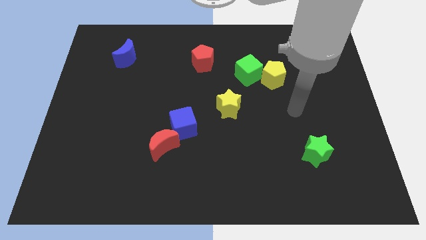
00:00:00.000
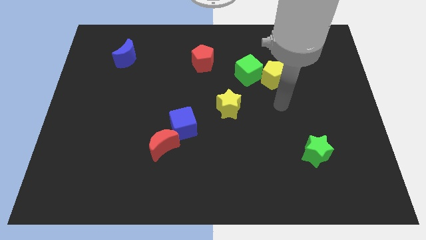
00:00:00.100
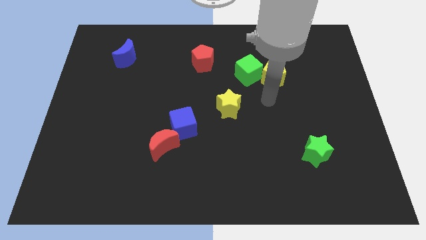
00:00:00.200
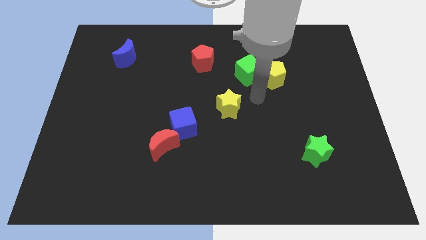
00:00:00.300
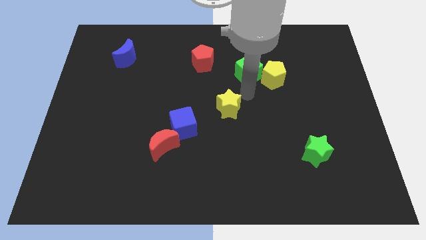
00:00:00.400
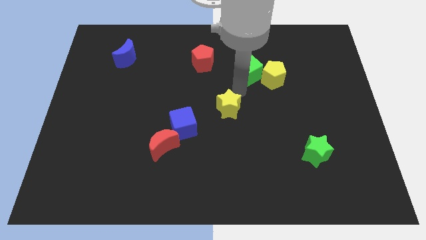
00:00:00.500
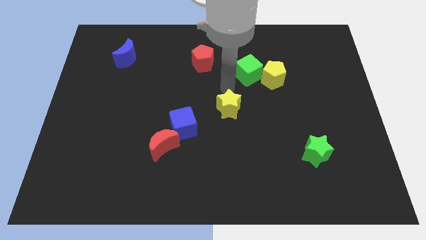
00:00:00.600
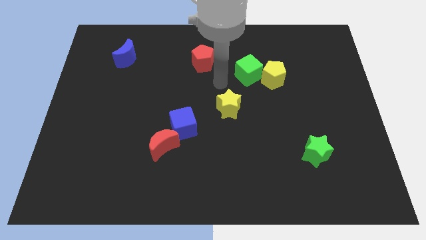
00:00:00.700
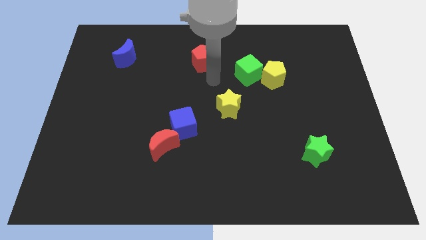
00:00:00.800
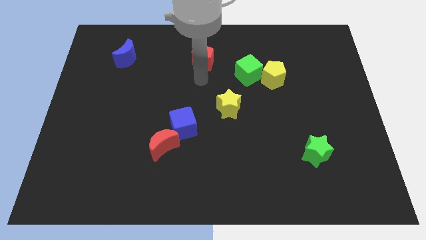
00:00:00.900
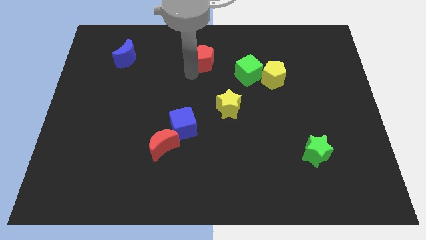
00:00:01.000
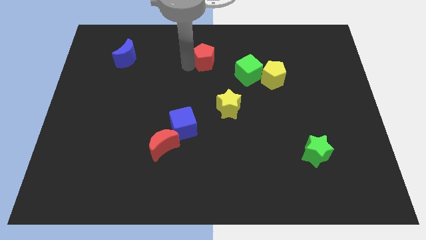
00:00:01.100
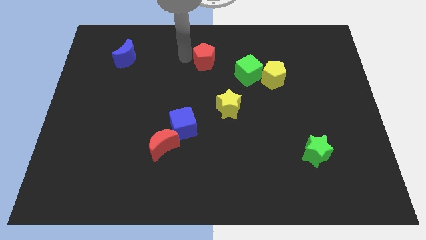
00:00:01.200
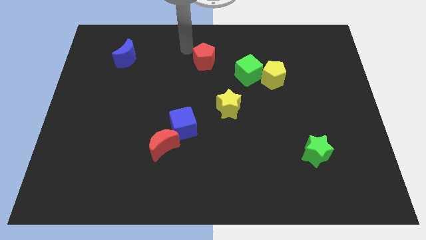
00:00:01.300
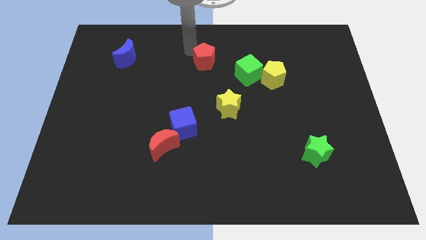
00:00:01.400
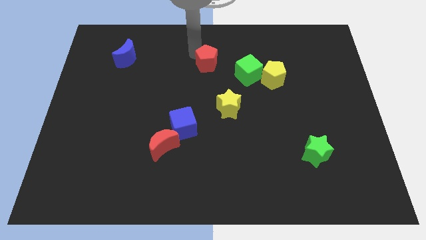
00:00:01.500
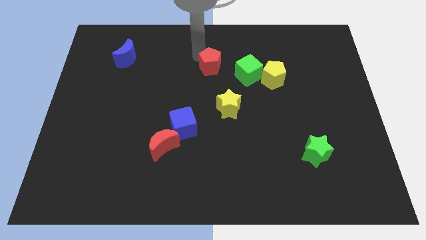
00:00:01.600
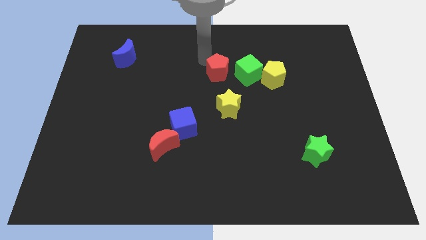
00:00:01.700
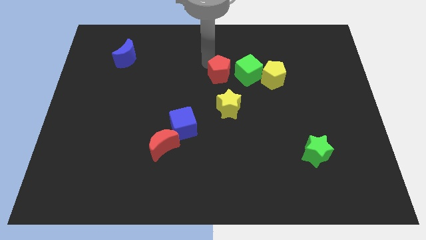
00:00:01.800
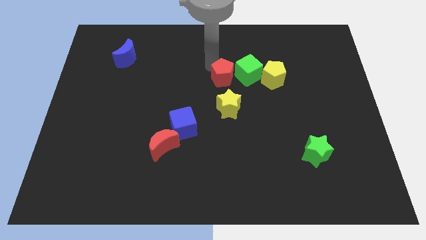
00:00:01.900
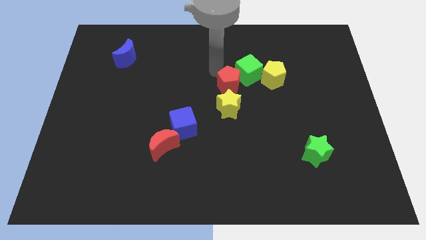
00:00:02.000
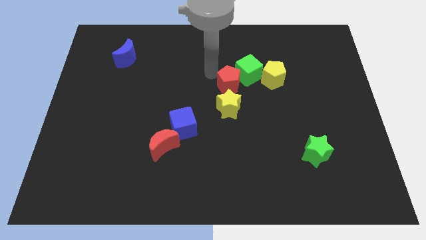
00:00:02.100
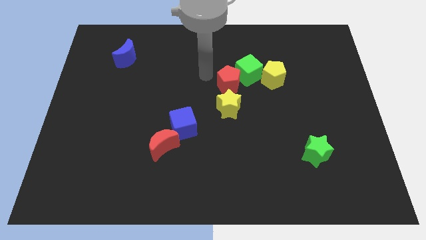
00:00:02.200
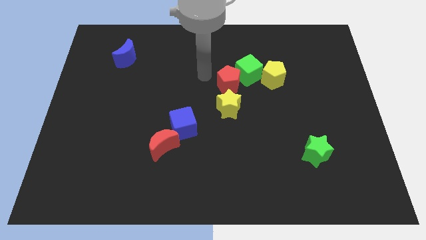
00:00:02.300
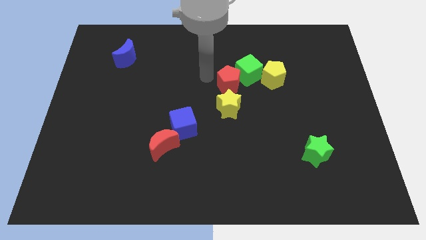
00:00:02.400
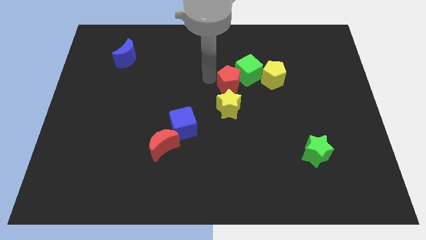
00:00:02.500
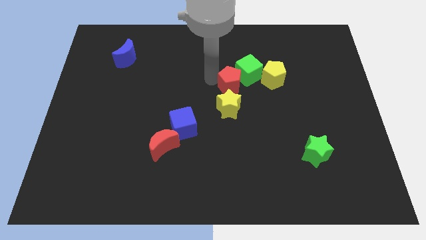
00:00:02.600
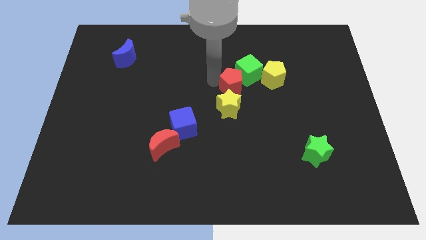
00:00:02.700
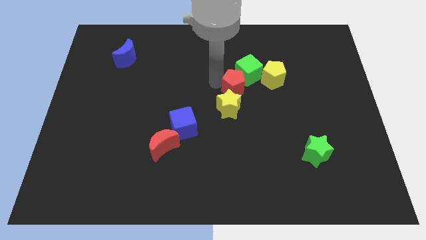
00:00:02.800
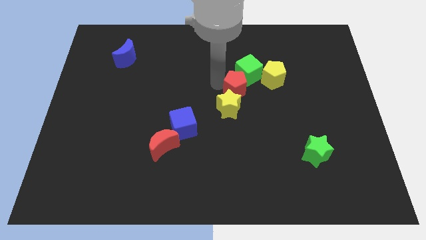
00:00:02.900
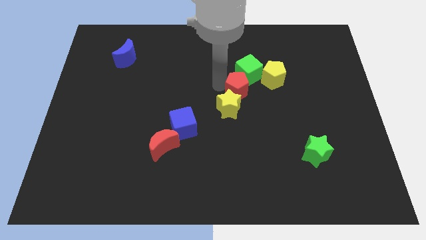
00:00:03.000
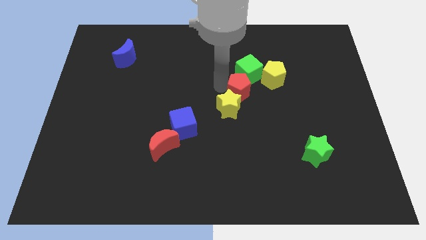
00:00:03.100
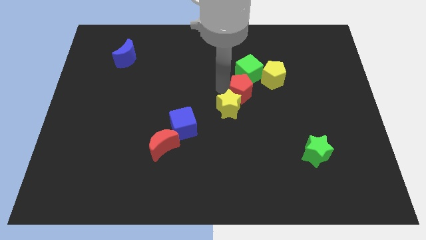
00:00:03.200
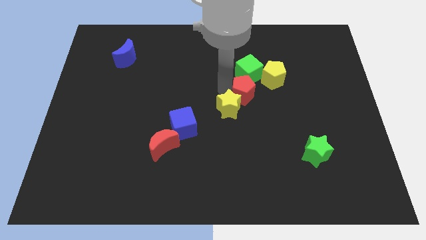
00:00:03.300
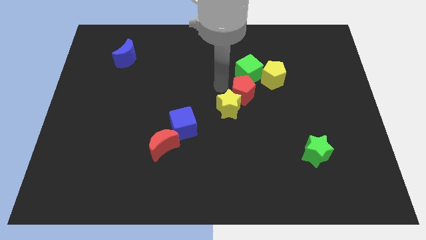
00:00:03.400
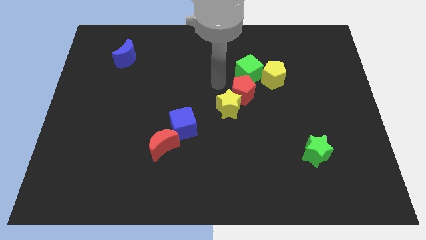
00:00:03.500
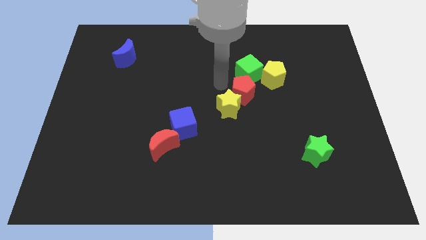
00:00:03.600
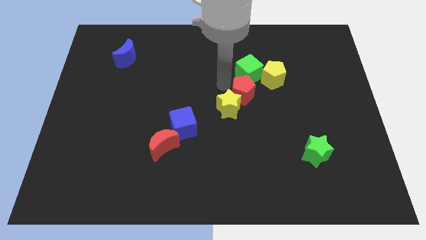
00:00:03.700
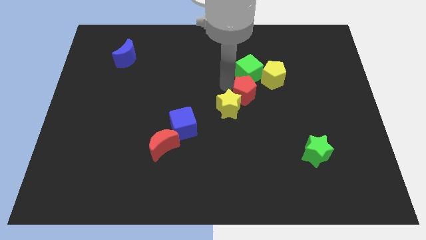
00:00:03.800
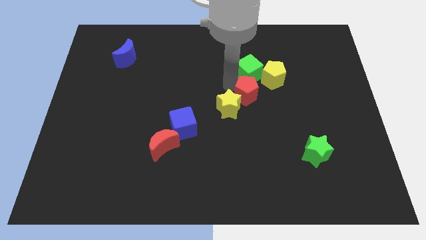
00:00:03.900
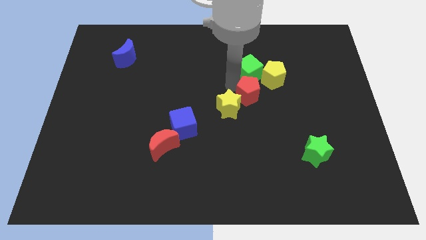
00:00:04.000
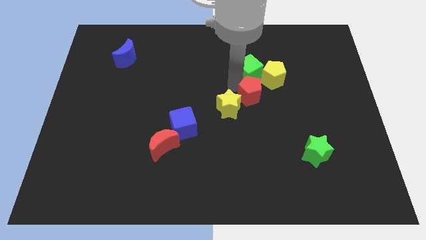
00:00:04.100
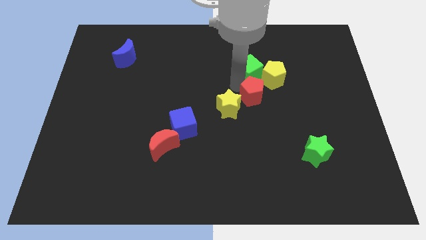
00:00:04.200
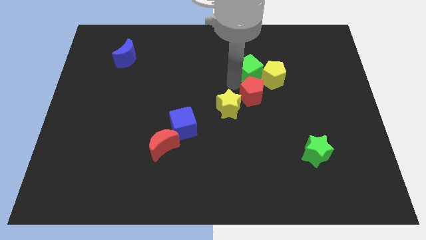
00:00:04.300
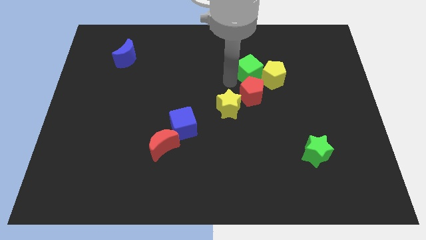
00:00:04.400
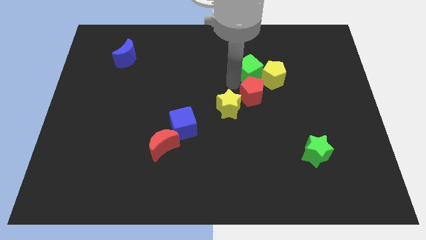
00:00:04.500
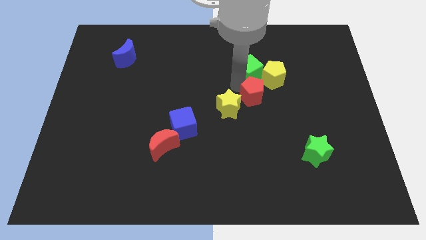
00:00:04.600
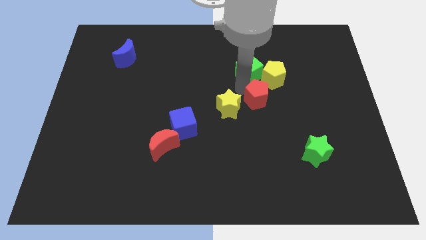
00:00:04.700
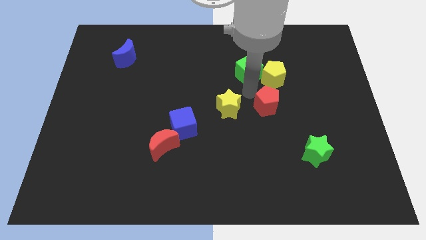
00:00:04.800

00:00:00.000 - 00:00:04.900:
move the red pentagon downwards and to the right

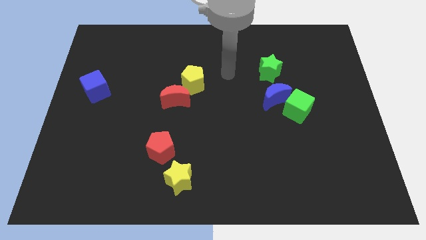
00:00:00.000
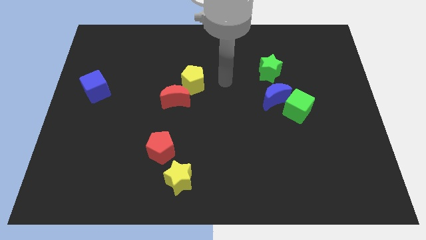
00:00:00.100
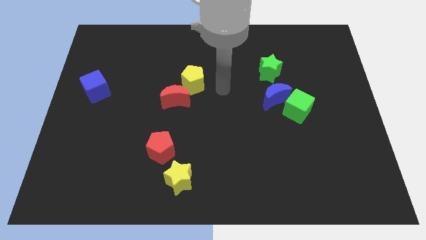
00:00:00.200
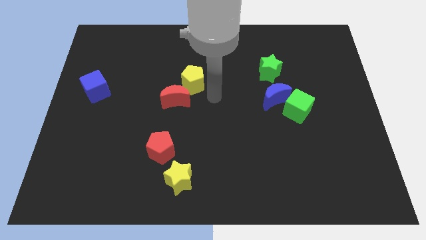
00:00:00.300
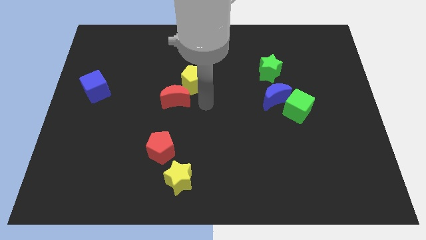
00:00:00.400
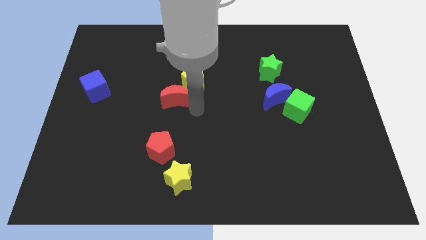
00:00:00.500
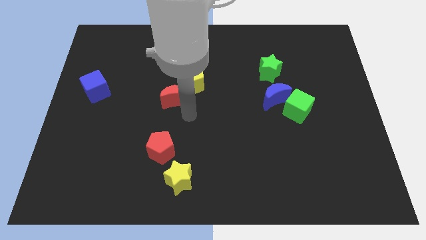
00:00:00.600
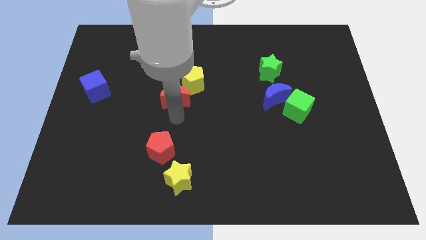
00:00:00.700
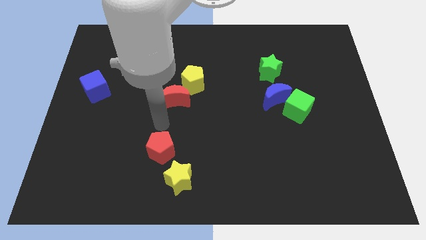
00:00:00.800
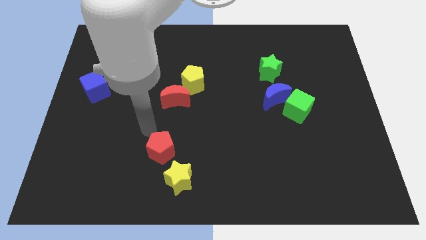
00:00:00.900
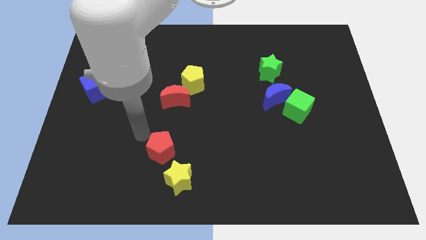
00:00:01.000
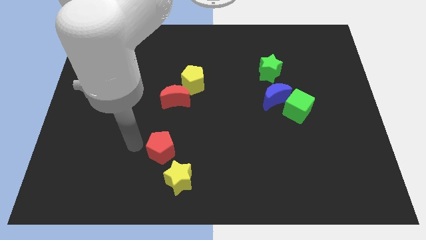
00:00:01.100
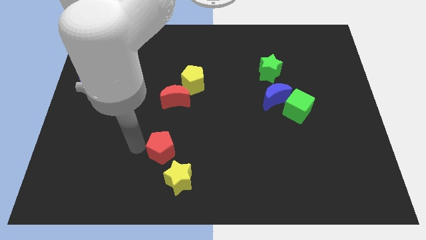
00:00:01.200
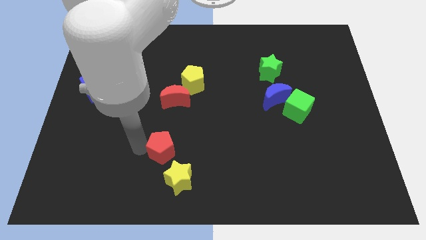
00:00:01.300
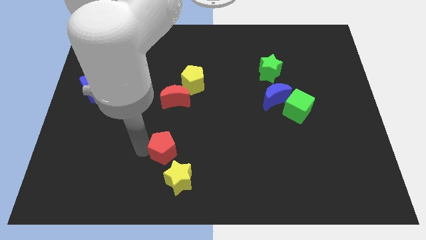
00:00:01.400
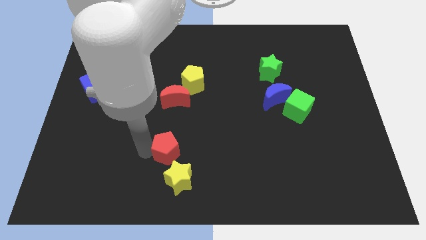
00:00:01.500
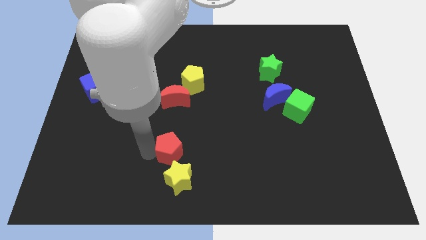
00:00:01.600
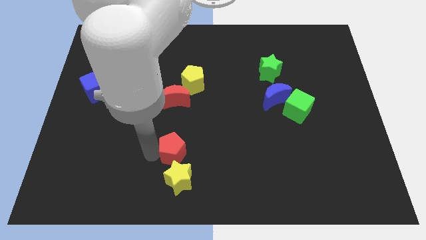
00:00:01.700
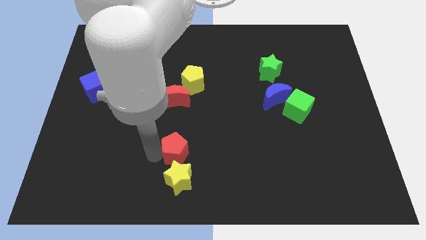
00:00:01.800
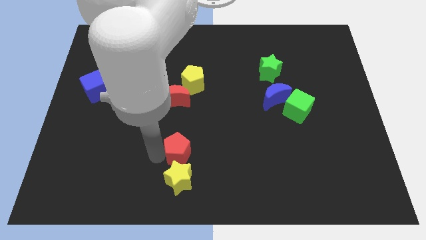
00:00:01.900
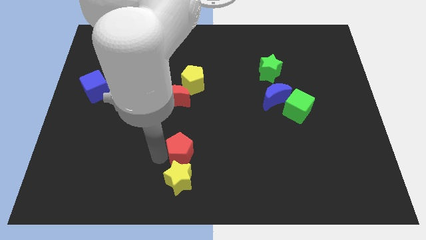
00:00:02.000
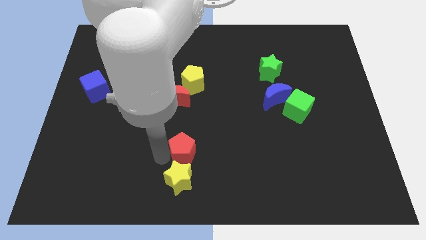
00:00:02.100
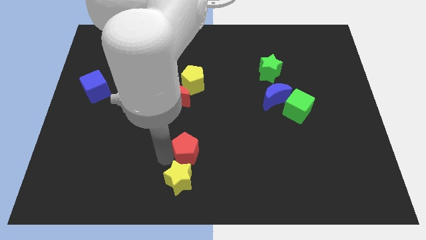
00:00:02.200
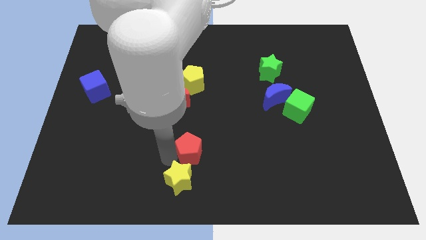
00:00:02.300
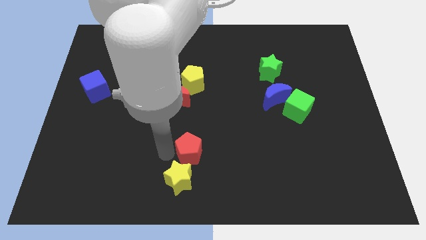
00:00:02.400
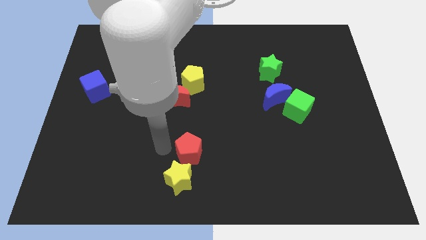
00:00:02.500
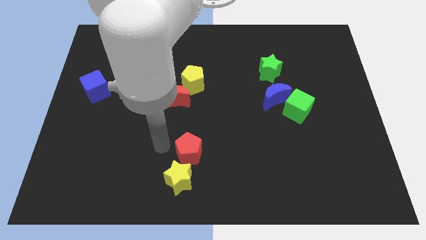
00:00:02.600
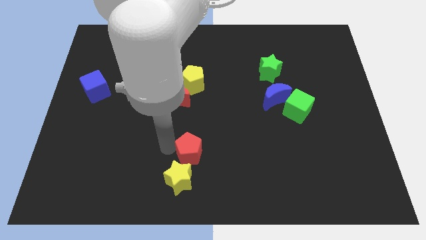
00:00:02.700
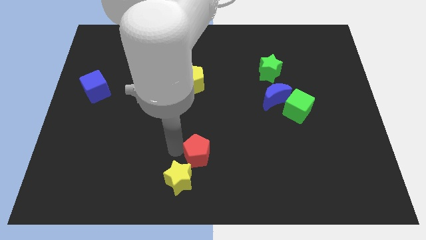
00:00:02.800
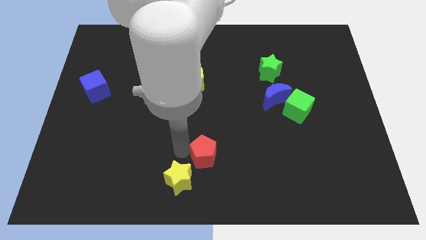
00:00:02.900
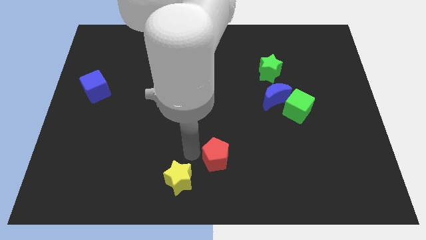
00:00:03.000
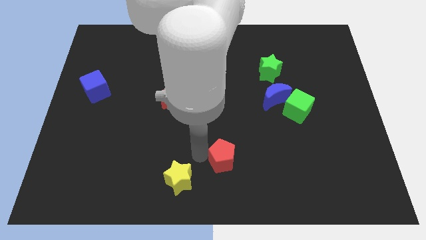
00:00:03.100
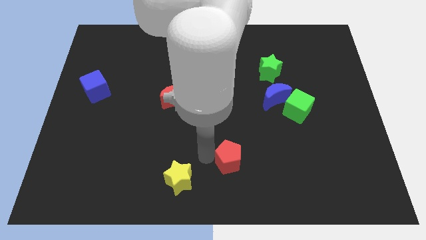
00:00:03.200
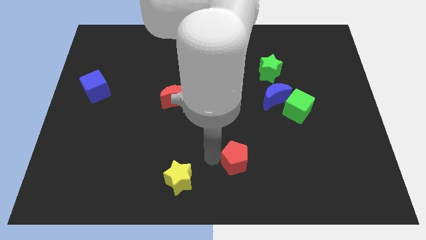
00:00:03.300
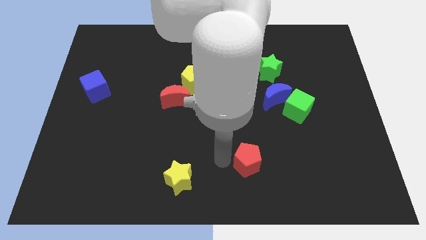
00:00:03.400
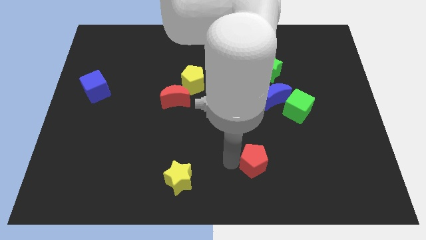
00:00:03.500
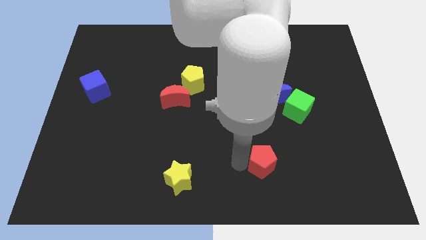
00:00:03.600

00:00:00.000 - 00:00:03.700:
slide the red pentagon right
